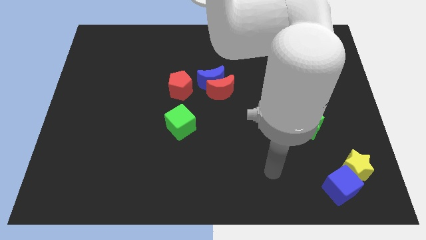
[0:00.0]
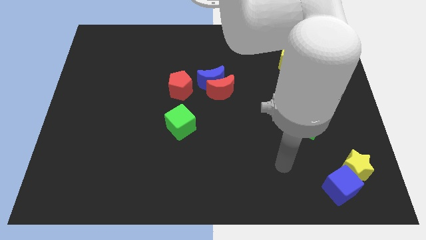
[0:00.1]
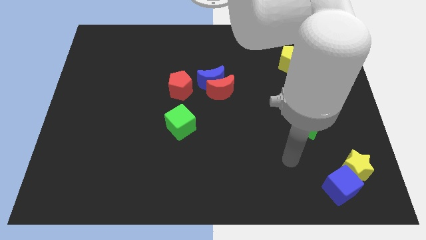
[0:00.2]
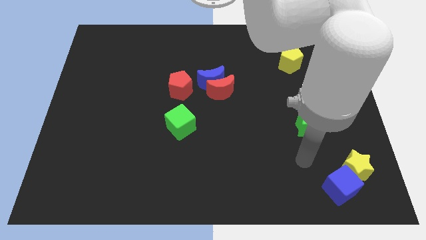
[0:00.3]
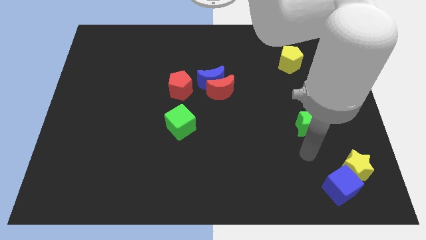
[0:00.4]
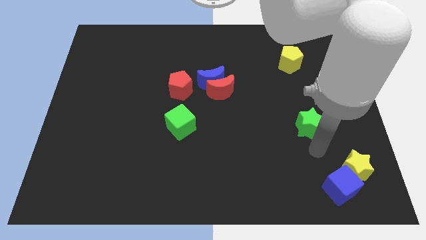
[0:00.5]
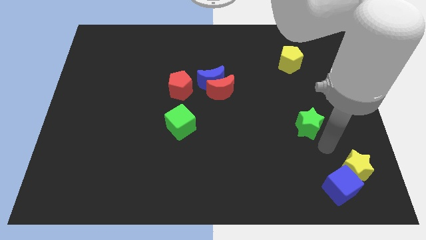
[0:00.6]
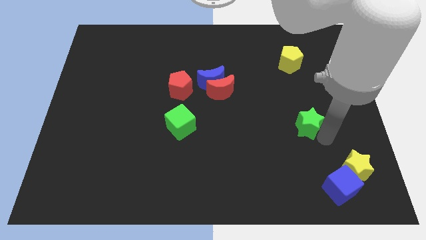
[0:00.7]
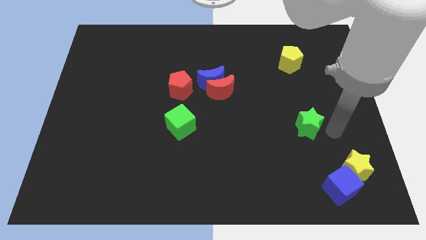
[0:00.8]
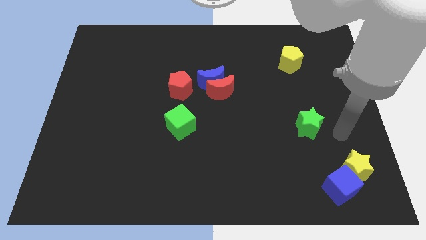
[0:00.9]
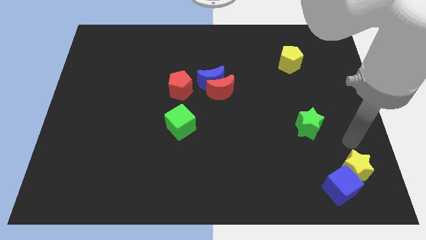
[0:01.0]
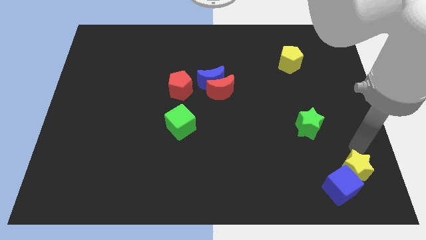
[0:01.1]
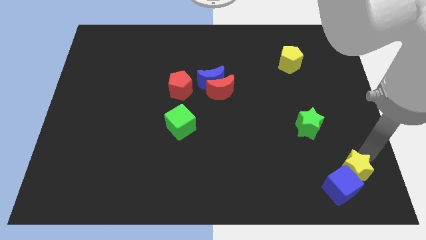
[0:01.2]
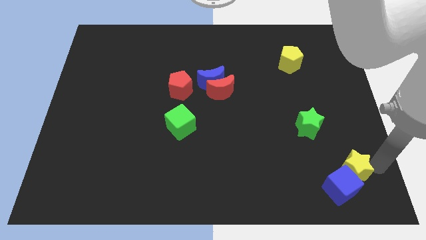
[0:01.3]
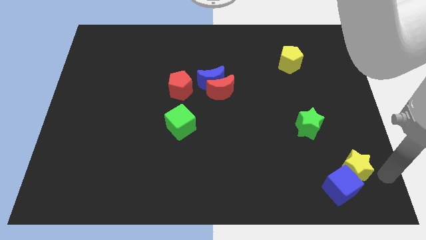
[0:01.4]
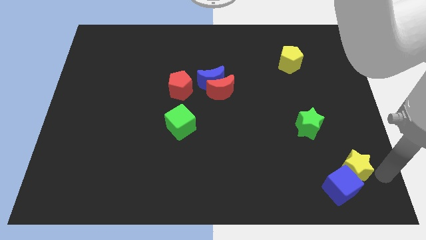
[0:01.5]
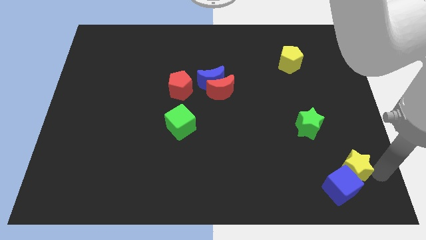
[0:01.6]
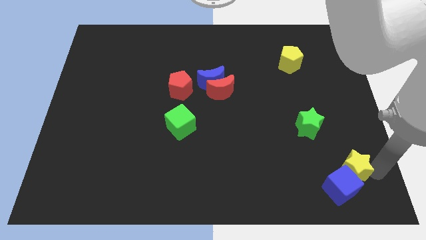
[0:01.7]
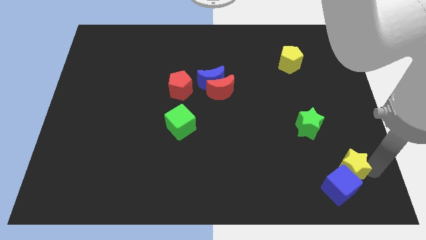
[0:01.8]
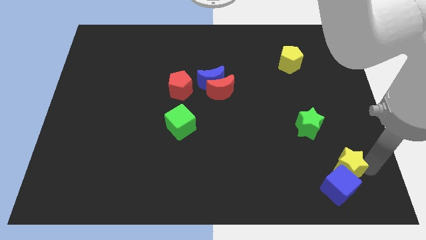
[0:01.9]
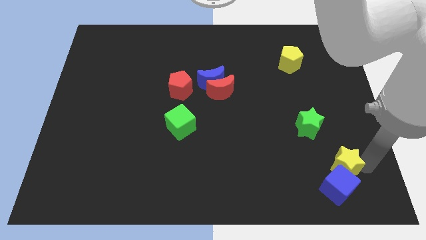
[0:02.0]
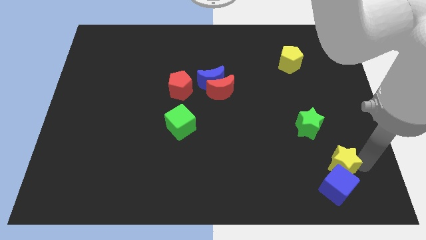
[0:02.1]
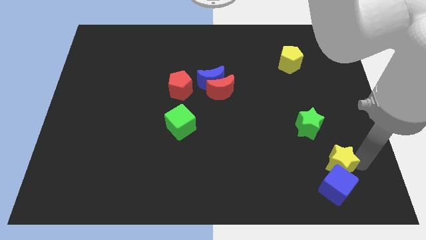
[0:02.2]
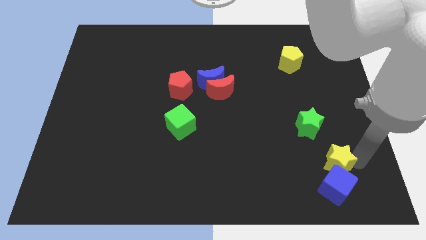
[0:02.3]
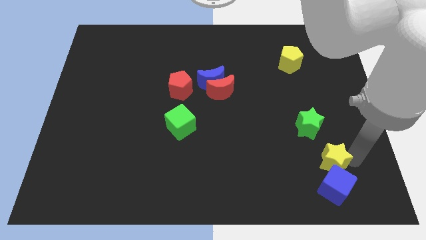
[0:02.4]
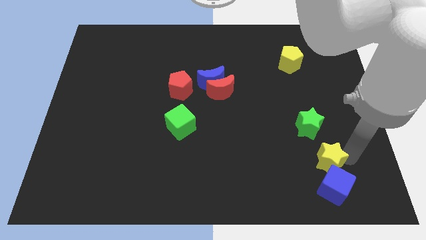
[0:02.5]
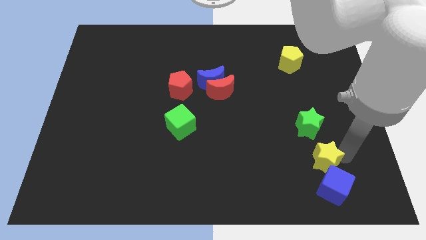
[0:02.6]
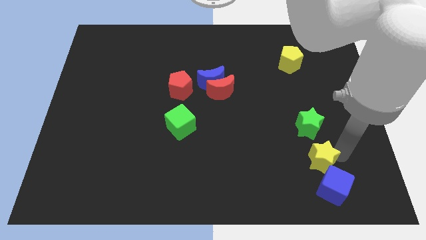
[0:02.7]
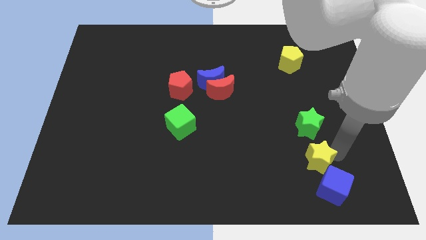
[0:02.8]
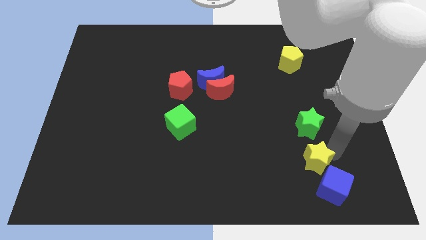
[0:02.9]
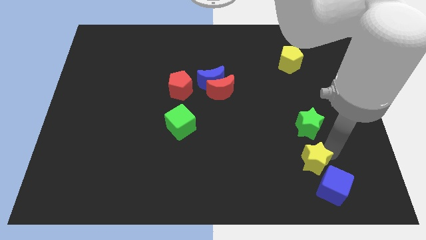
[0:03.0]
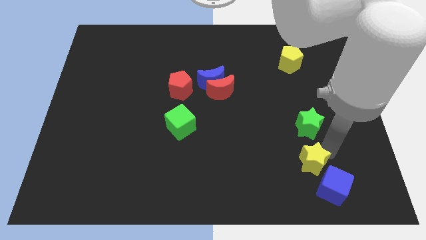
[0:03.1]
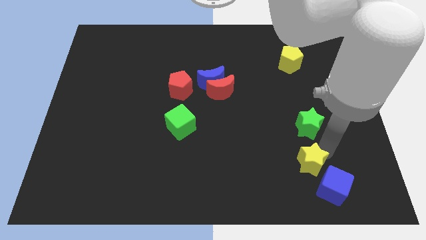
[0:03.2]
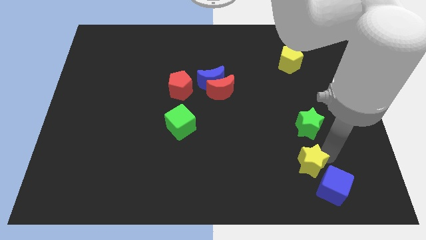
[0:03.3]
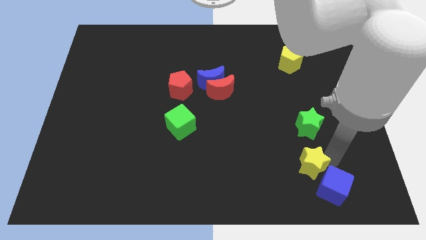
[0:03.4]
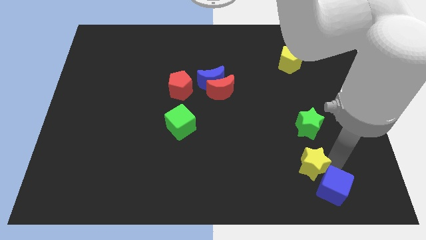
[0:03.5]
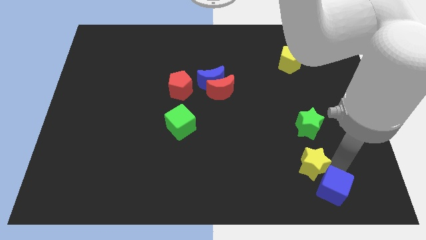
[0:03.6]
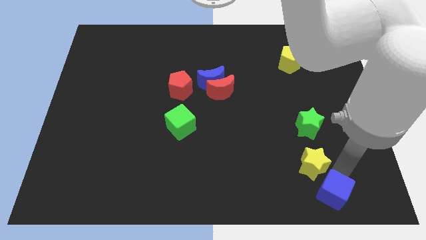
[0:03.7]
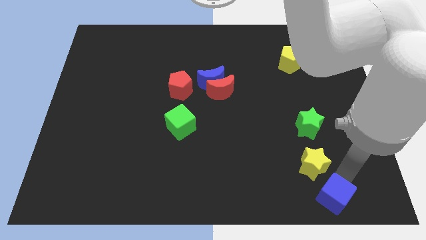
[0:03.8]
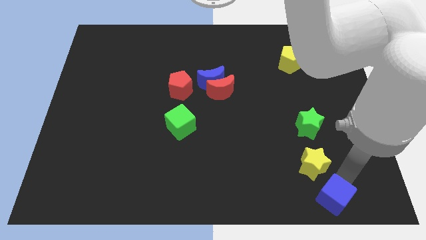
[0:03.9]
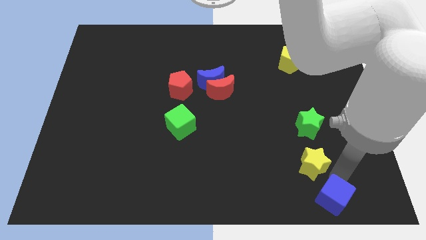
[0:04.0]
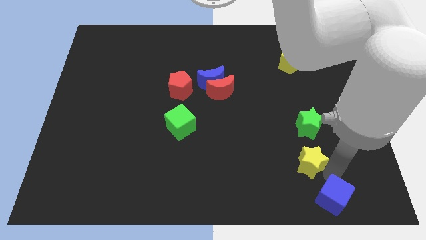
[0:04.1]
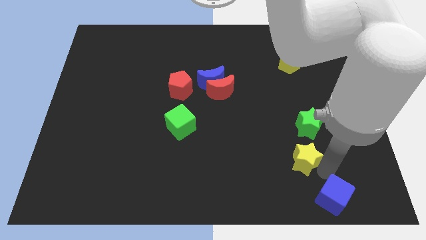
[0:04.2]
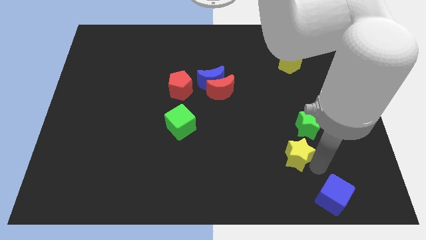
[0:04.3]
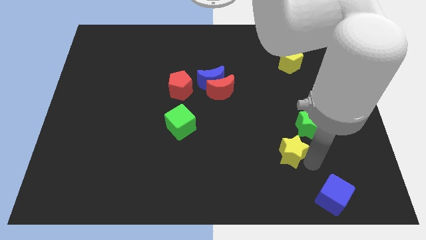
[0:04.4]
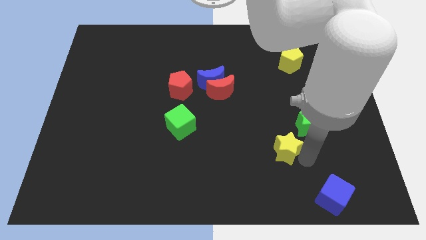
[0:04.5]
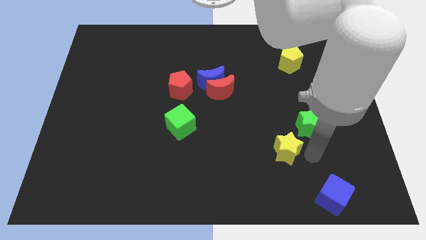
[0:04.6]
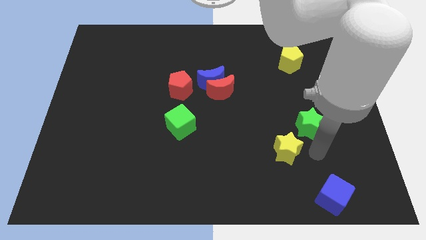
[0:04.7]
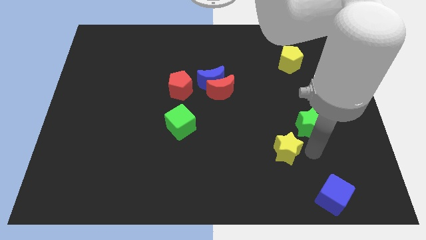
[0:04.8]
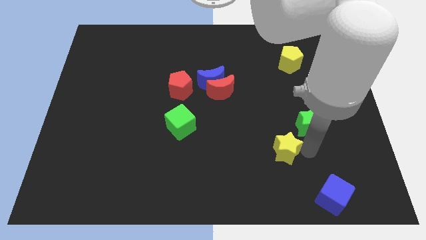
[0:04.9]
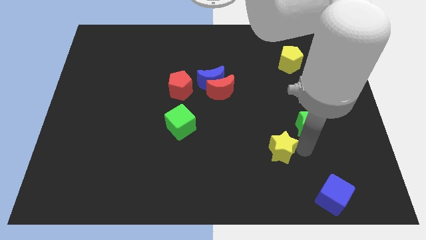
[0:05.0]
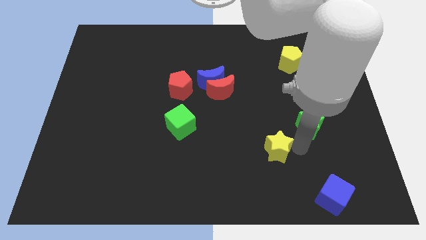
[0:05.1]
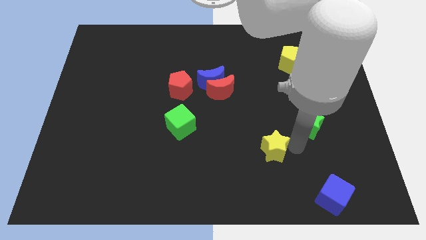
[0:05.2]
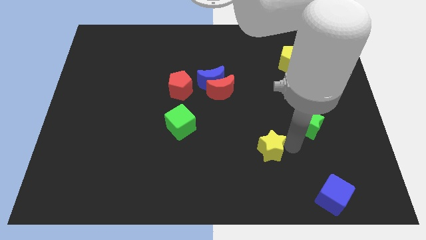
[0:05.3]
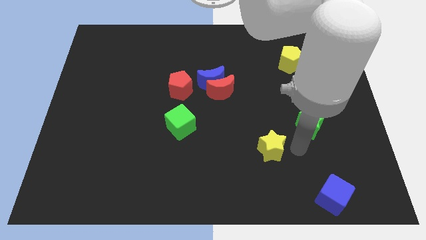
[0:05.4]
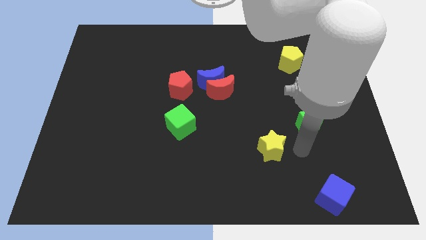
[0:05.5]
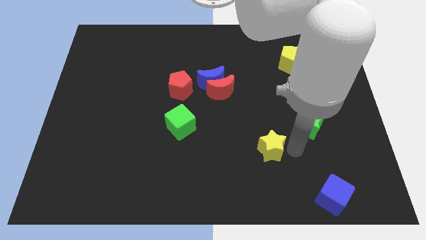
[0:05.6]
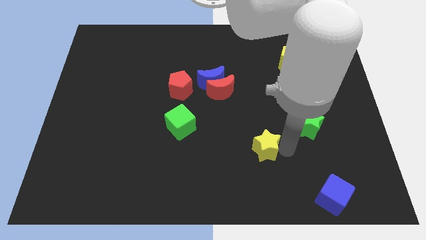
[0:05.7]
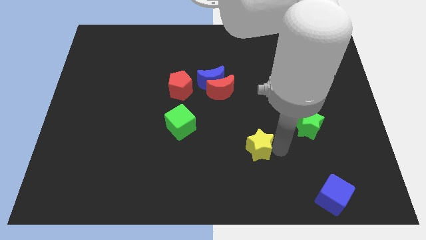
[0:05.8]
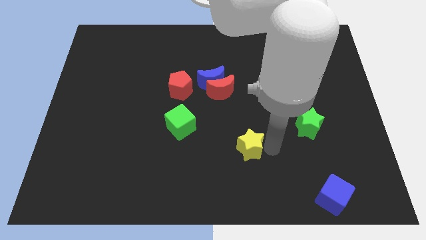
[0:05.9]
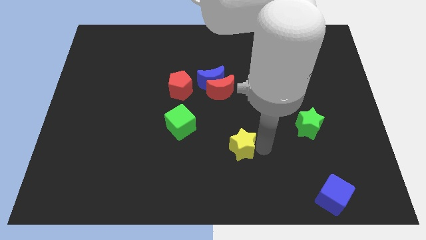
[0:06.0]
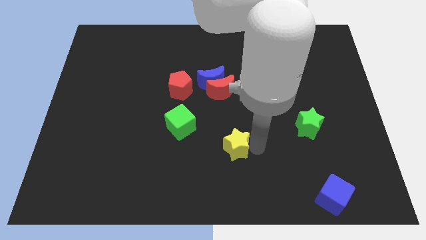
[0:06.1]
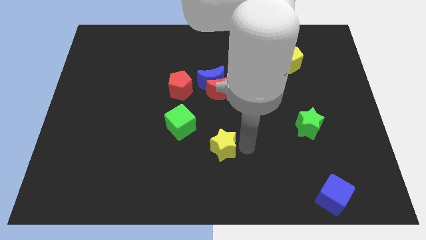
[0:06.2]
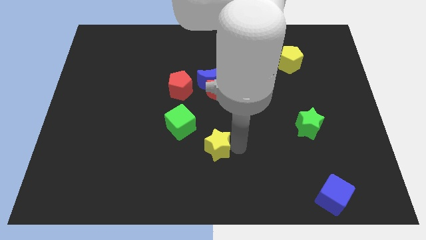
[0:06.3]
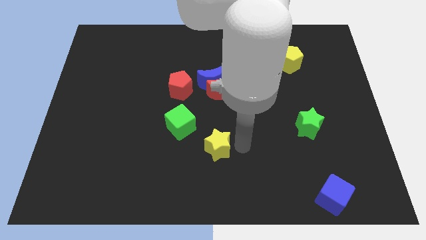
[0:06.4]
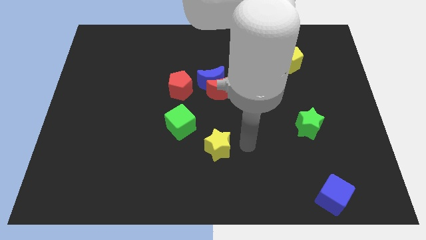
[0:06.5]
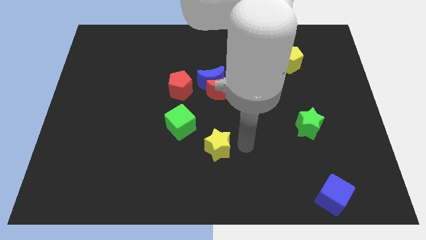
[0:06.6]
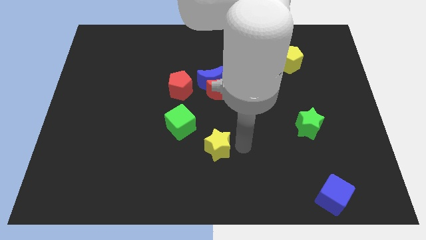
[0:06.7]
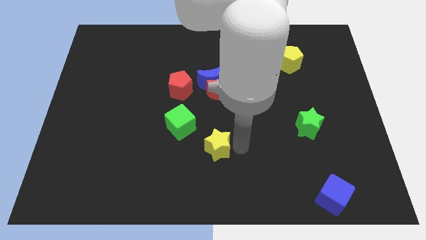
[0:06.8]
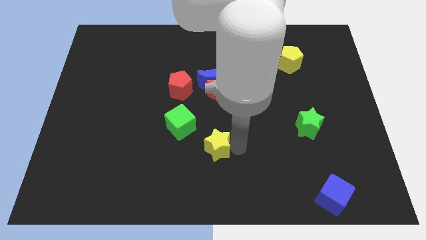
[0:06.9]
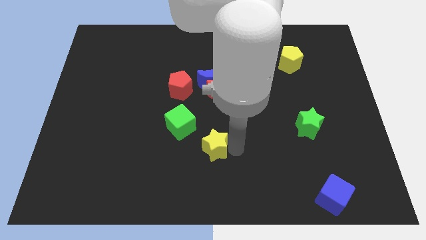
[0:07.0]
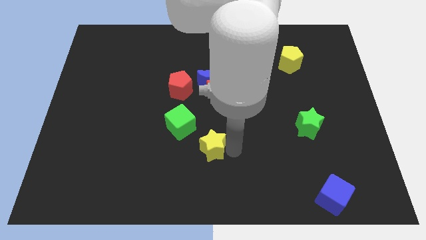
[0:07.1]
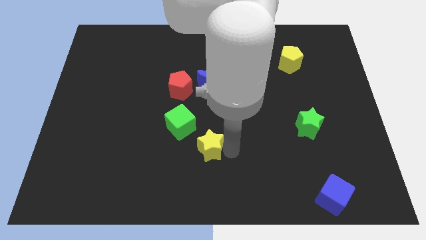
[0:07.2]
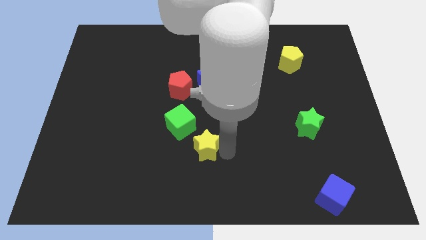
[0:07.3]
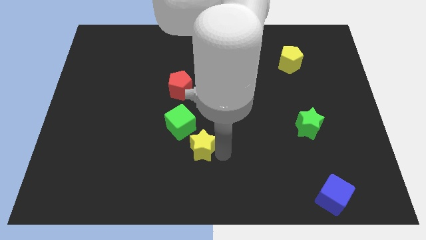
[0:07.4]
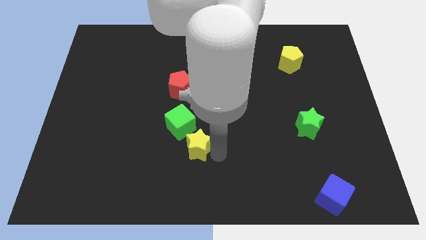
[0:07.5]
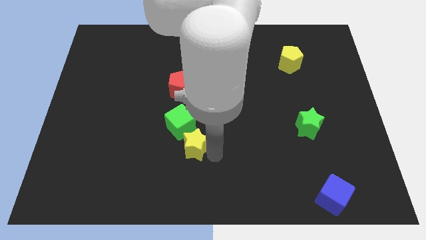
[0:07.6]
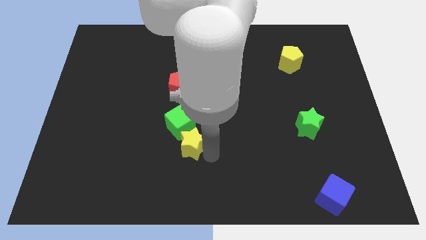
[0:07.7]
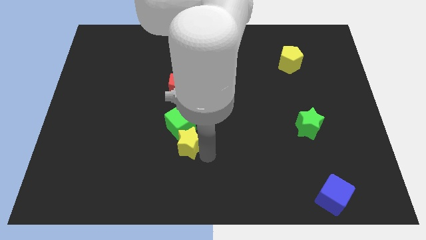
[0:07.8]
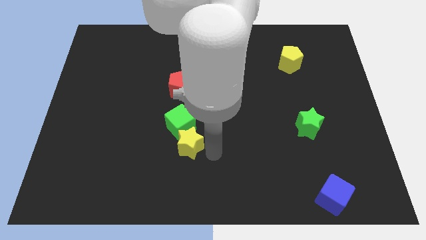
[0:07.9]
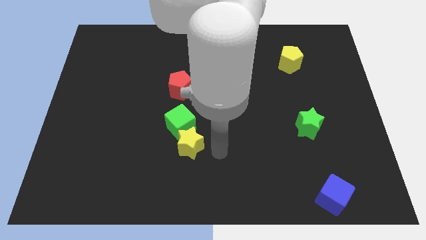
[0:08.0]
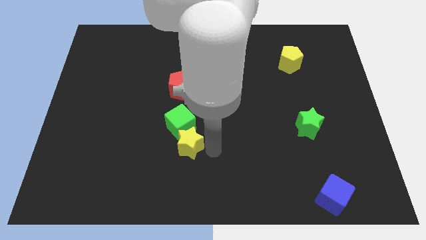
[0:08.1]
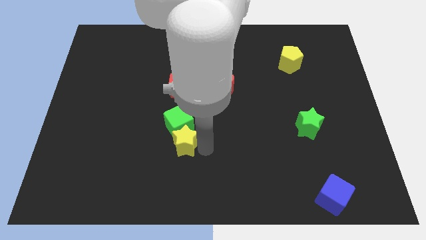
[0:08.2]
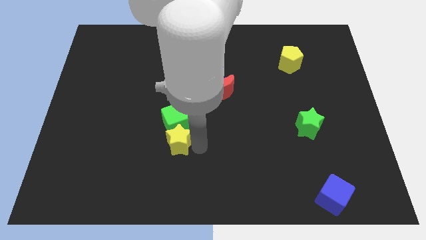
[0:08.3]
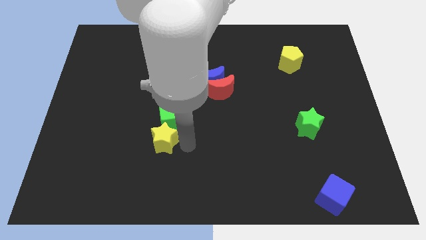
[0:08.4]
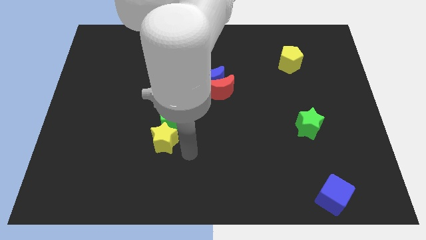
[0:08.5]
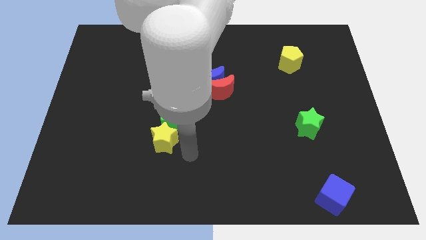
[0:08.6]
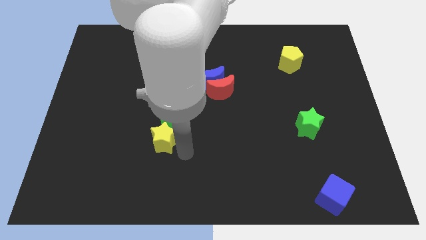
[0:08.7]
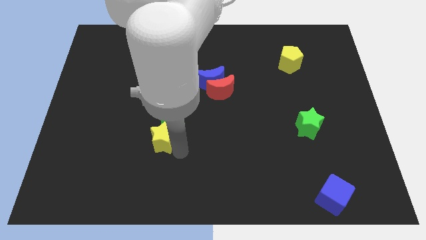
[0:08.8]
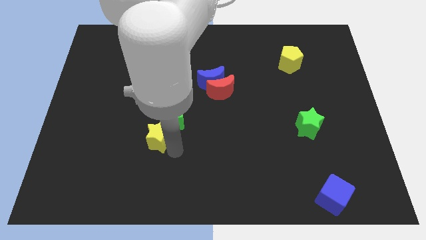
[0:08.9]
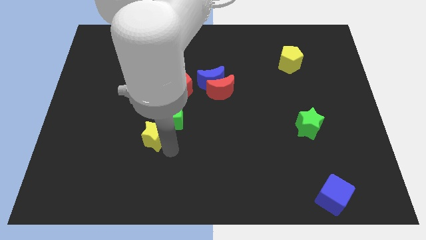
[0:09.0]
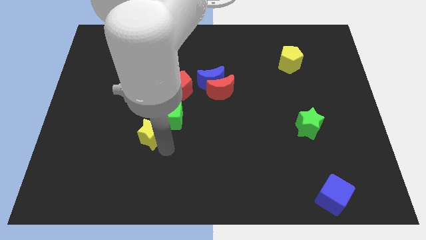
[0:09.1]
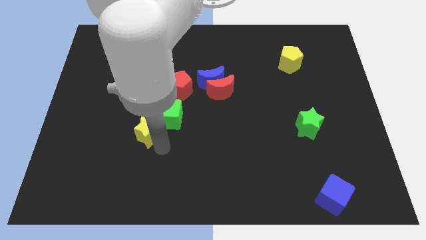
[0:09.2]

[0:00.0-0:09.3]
put the yellow star to the left side of the green cube
